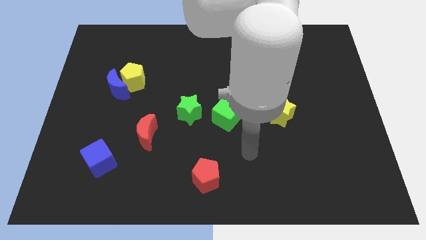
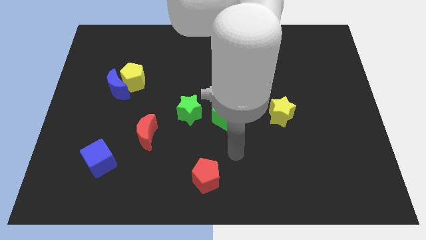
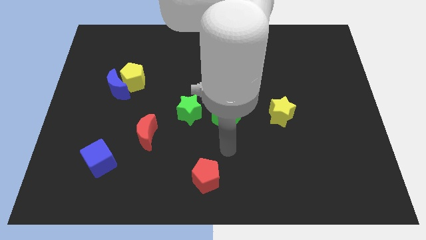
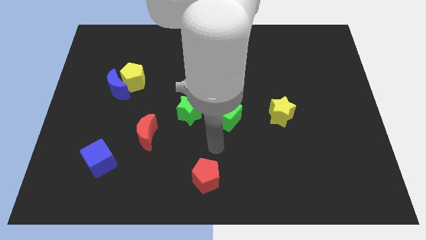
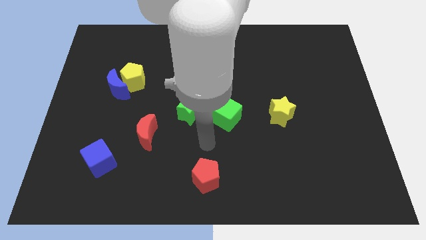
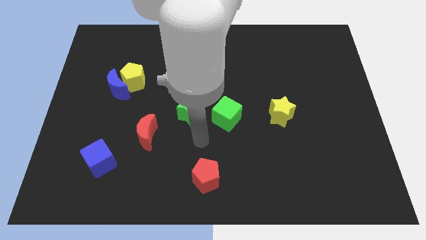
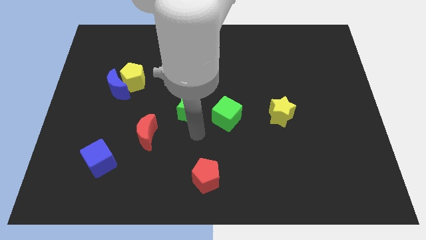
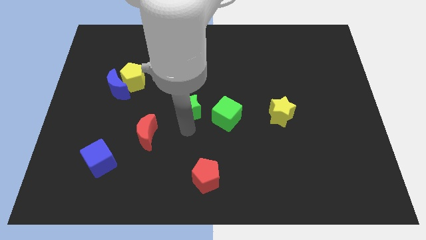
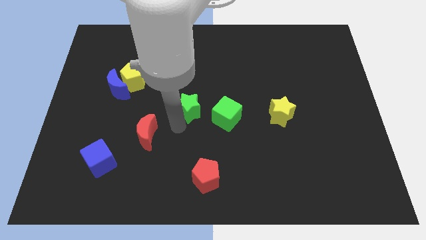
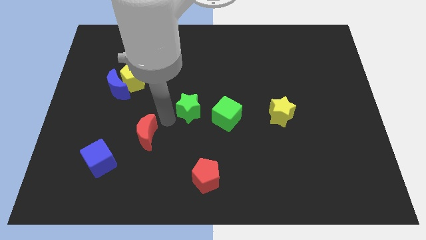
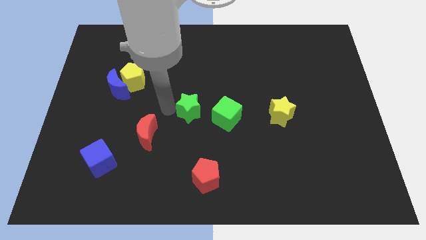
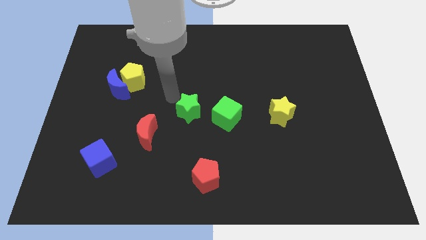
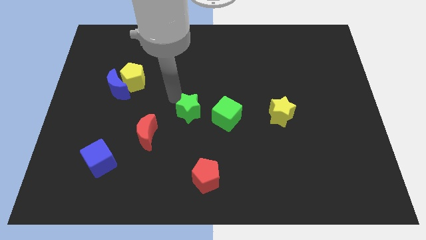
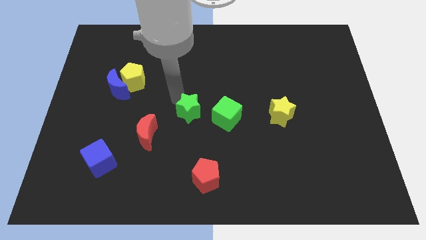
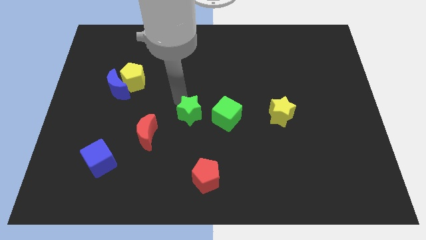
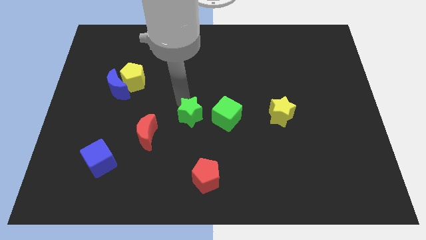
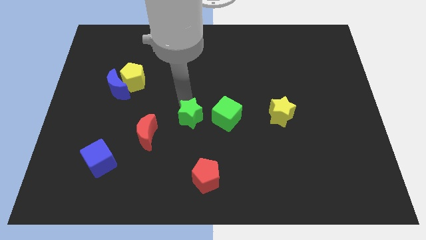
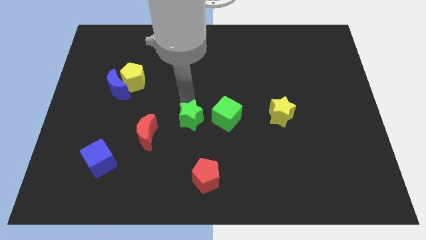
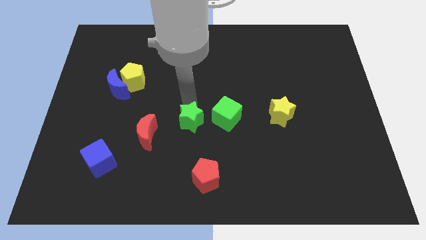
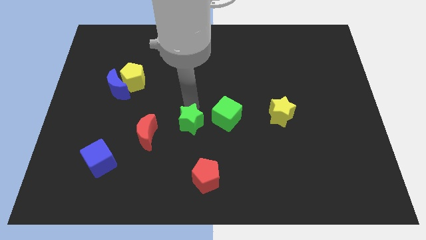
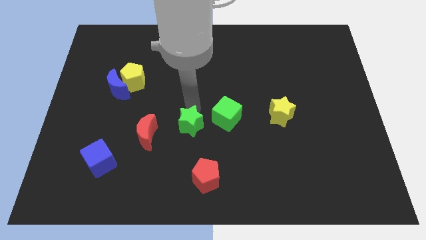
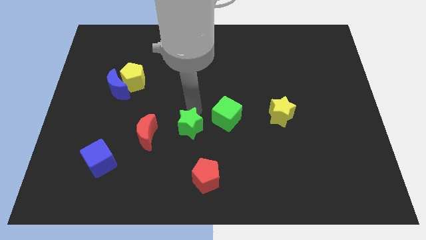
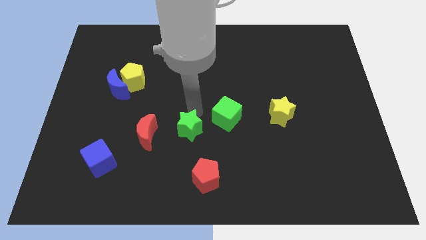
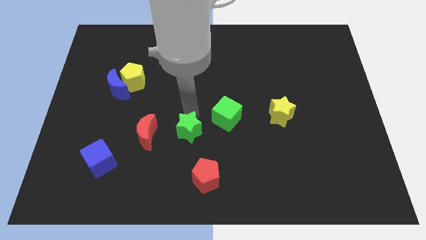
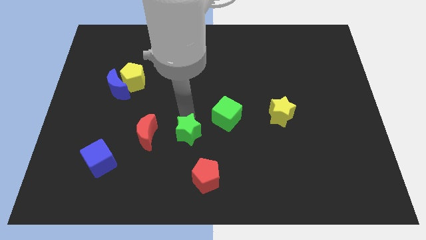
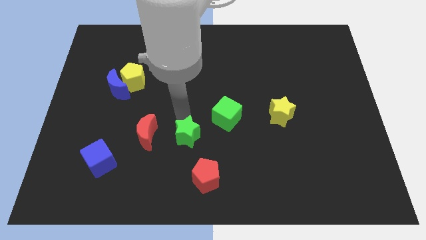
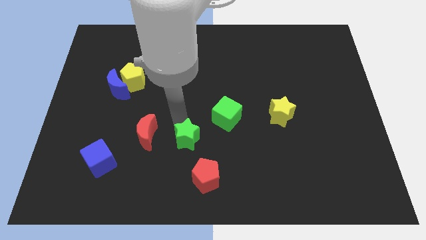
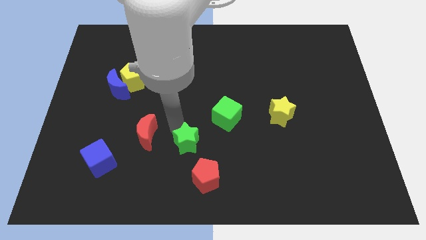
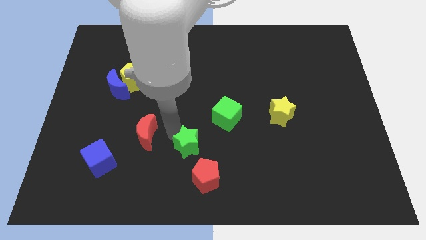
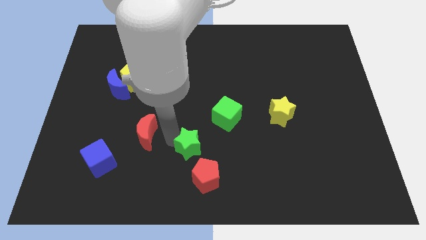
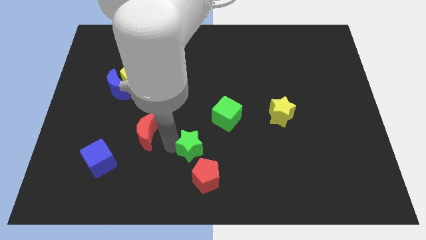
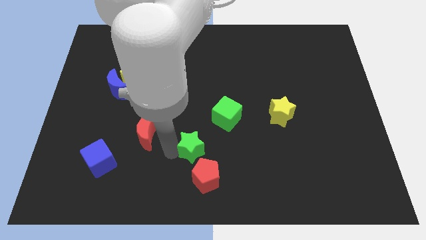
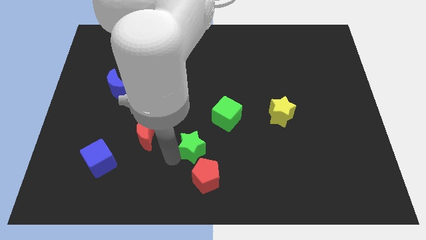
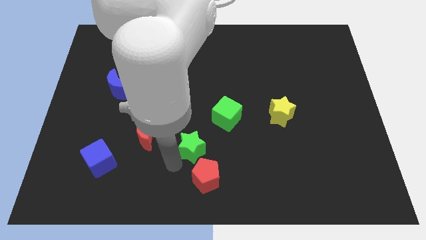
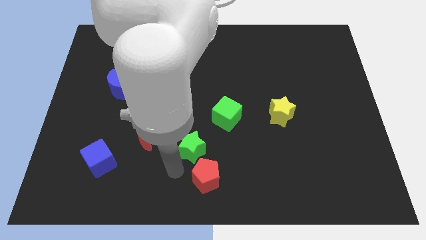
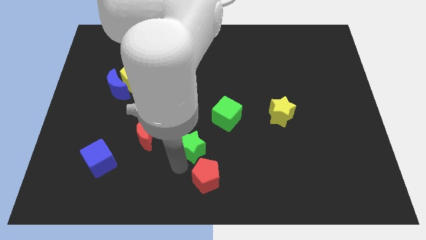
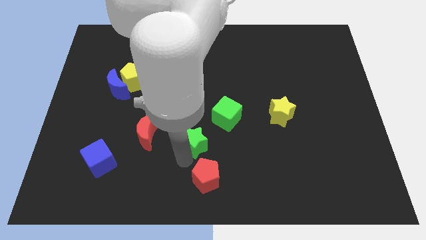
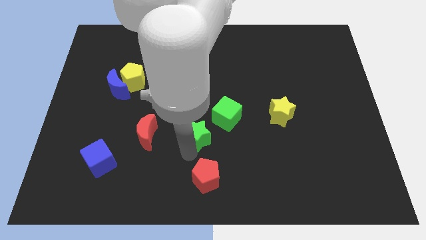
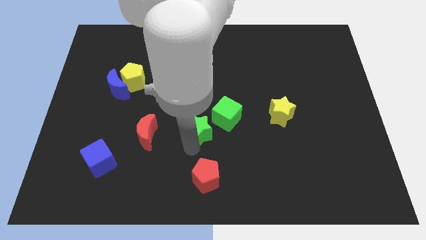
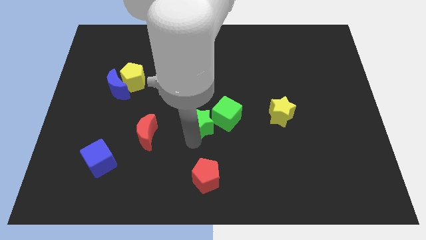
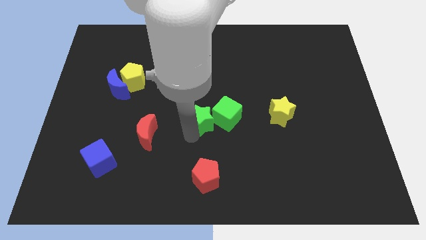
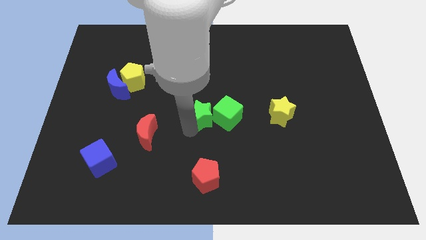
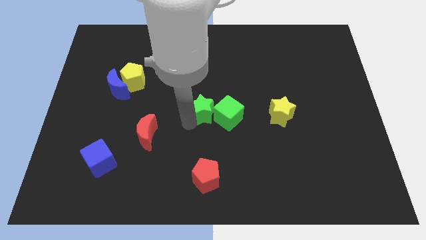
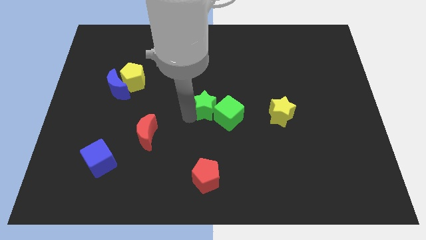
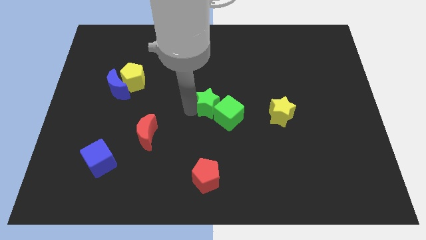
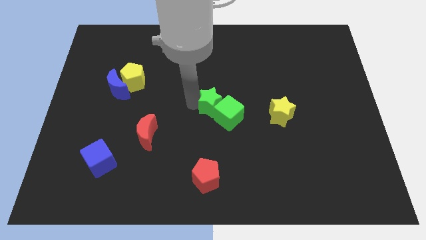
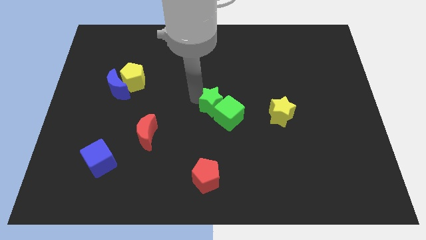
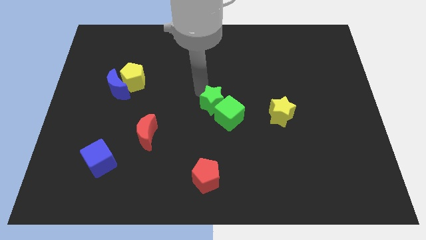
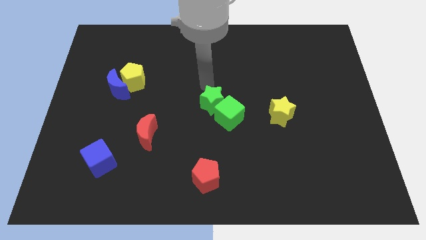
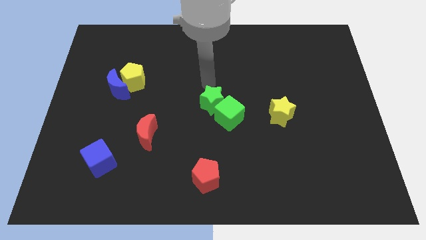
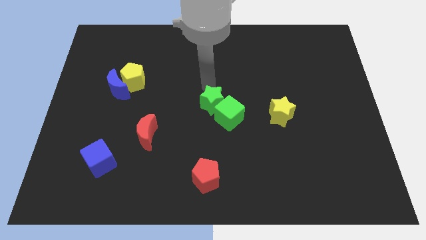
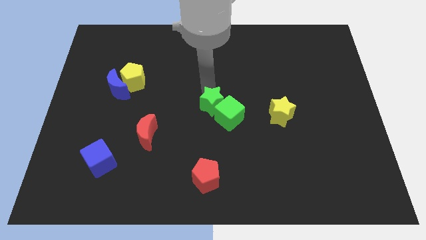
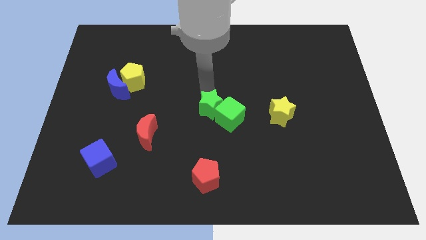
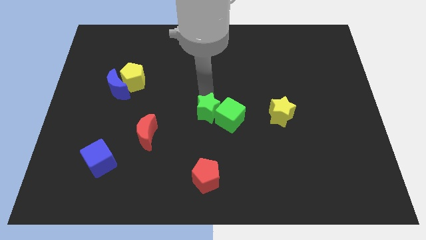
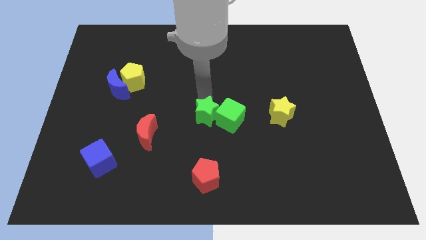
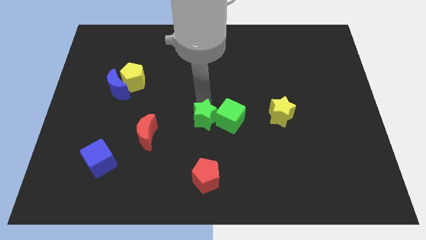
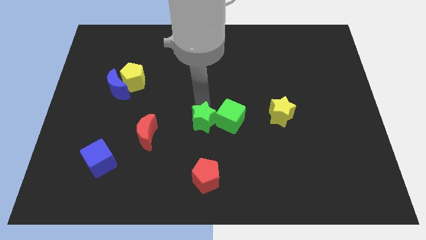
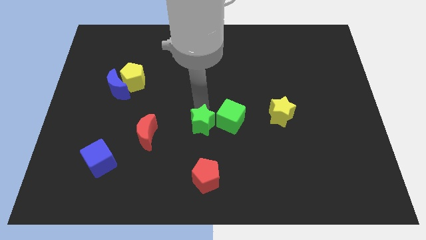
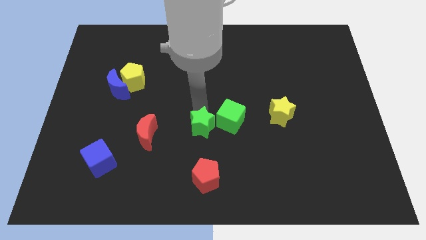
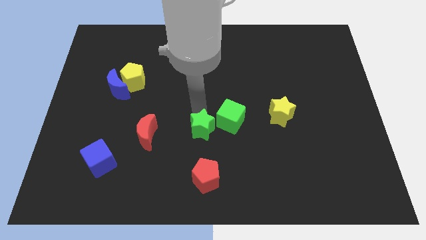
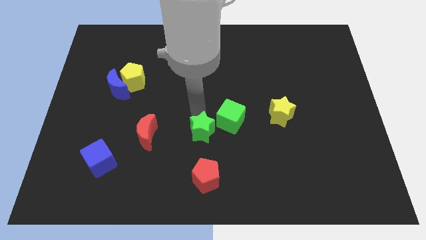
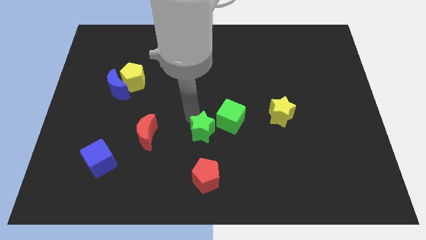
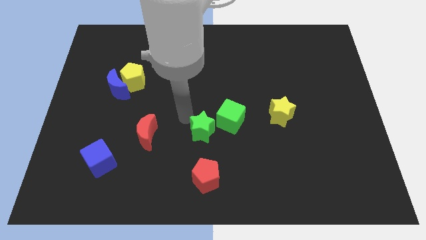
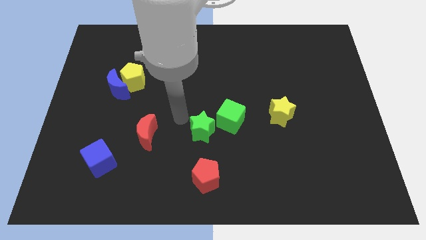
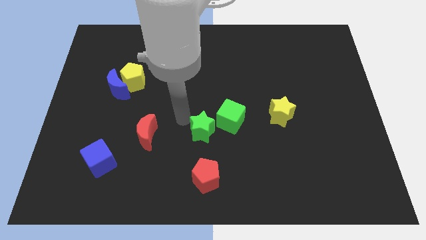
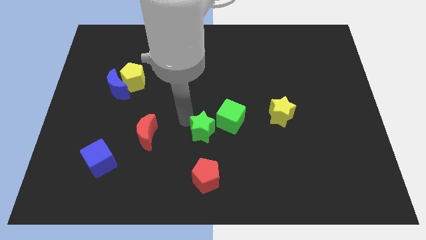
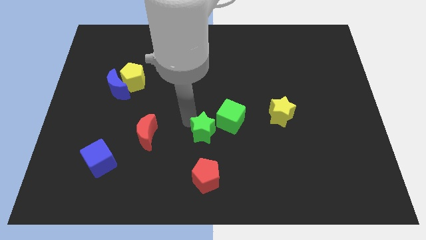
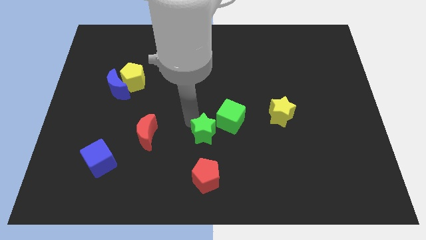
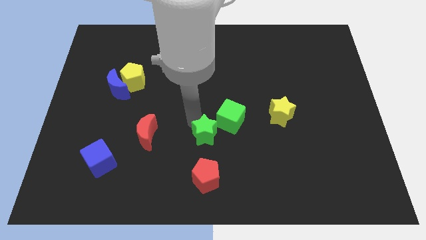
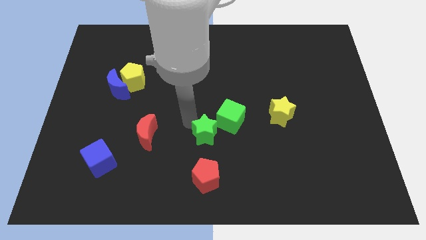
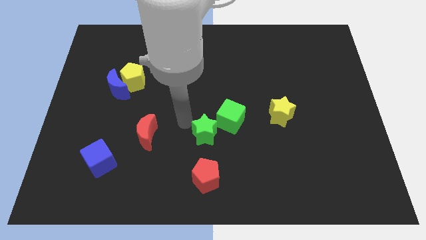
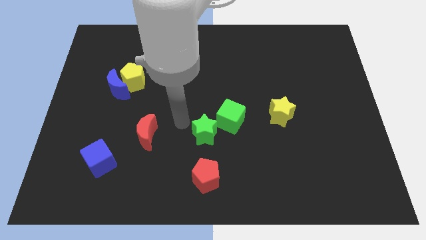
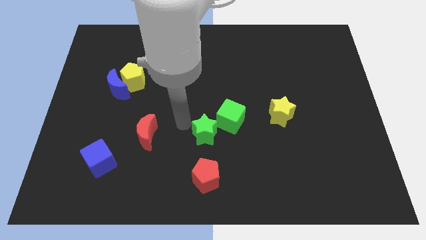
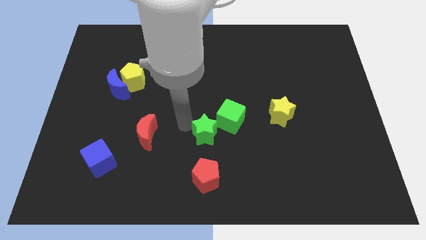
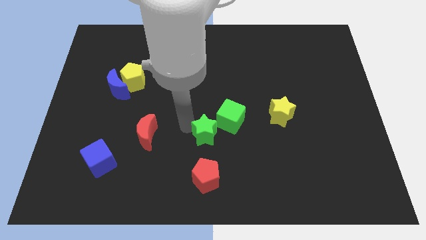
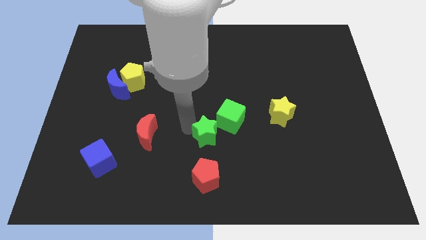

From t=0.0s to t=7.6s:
push the green star a little downwards and to the right
